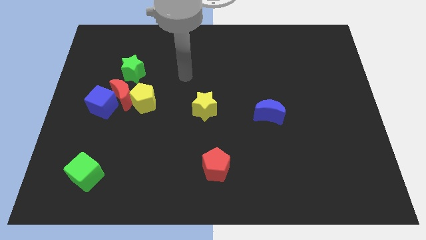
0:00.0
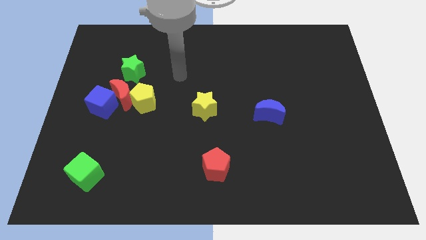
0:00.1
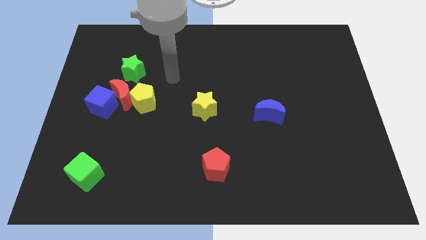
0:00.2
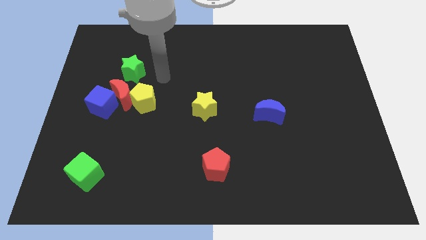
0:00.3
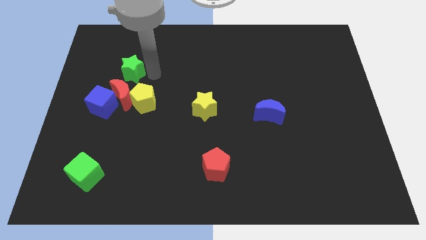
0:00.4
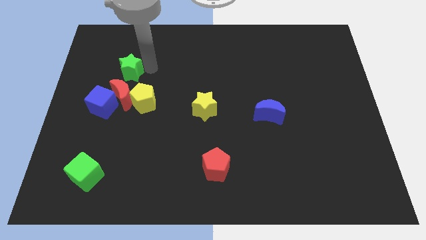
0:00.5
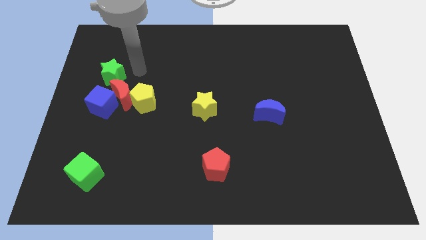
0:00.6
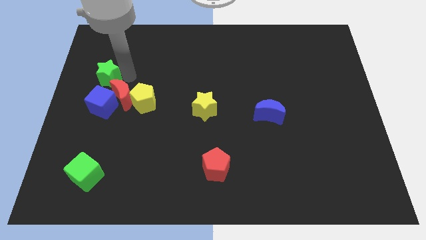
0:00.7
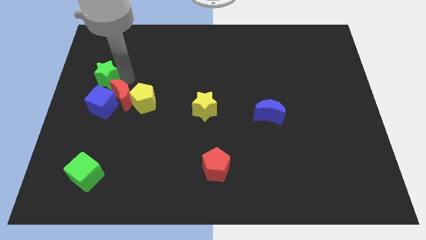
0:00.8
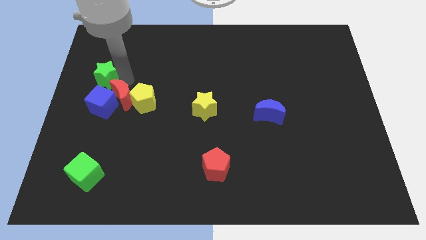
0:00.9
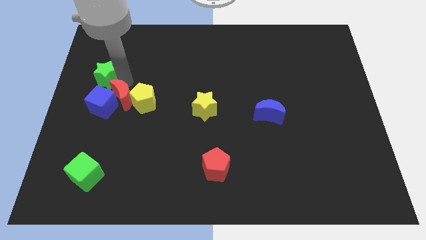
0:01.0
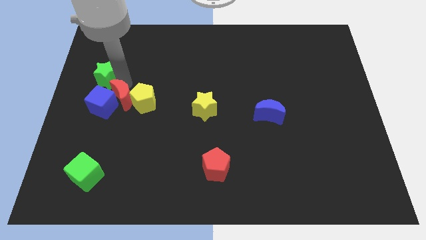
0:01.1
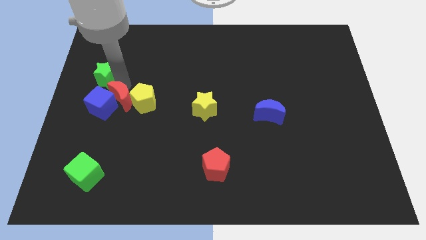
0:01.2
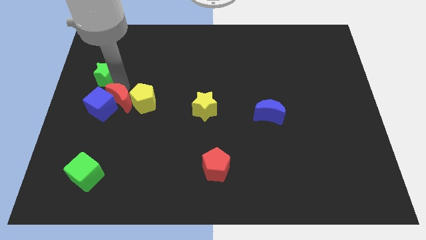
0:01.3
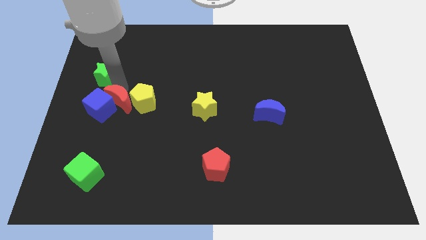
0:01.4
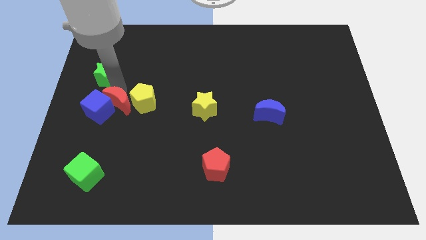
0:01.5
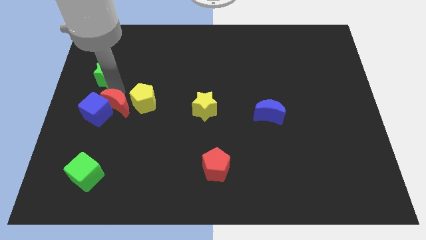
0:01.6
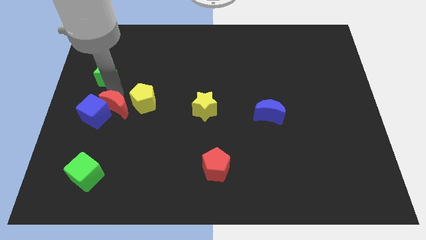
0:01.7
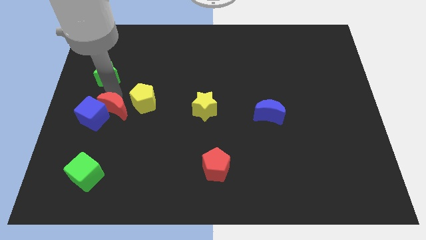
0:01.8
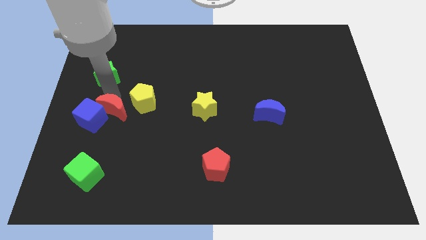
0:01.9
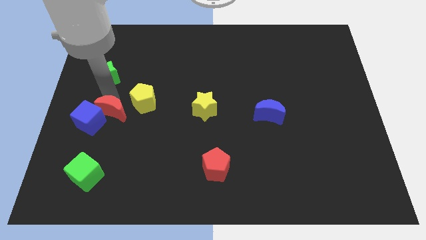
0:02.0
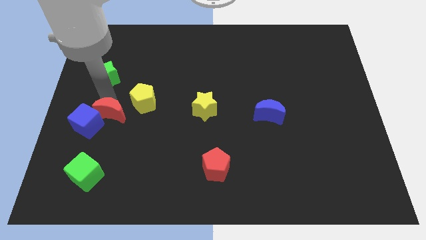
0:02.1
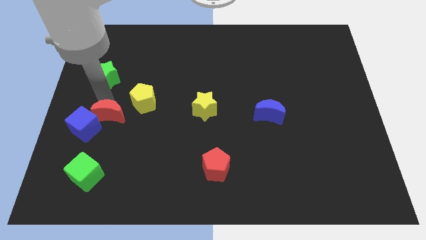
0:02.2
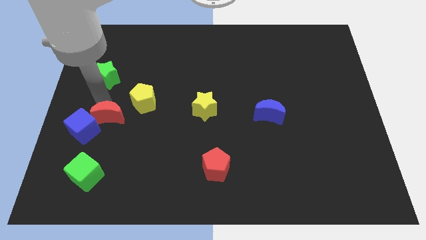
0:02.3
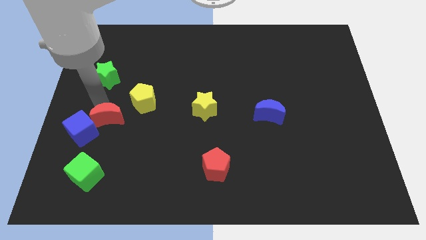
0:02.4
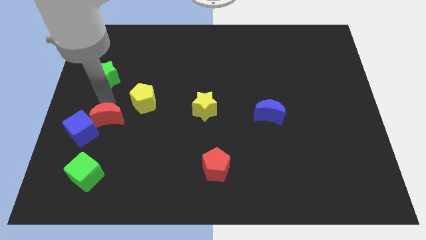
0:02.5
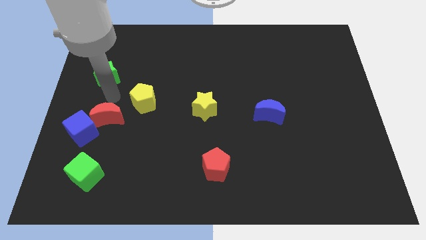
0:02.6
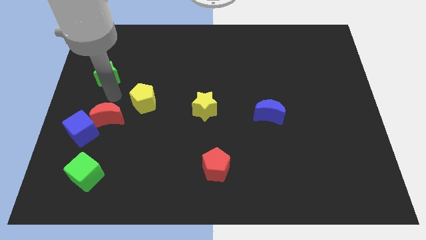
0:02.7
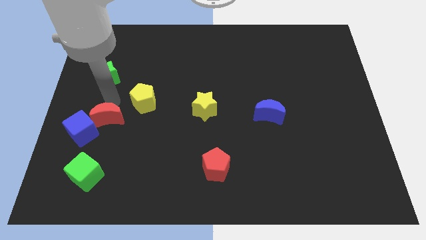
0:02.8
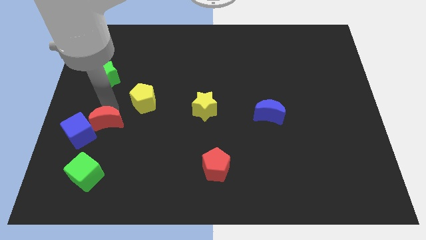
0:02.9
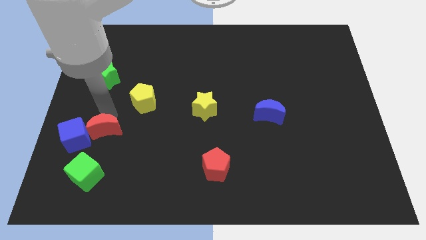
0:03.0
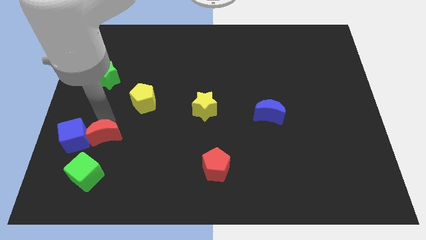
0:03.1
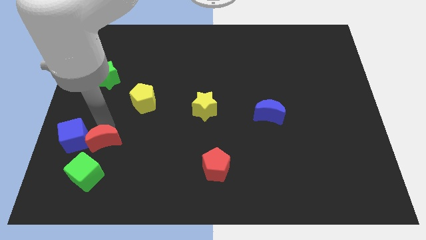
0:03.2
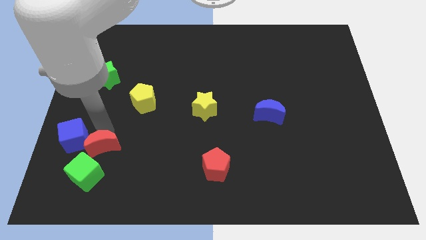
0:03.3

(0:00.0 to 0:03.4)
pull the red moon apart from the yellow pentagon, blue cube, and green star

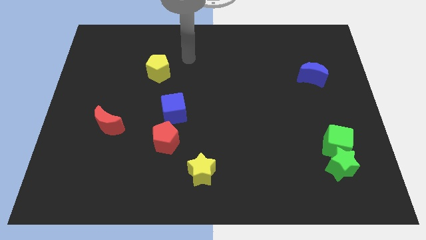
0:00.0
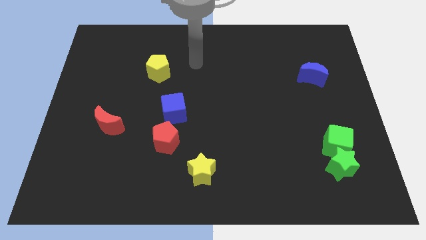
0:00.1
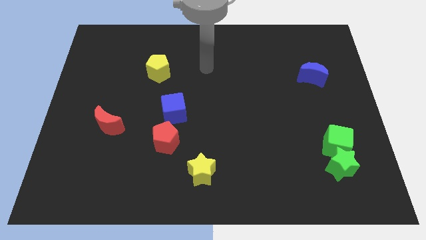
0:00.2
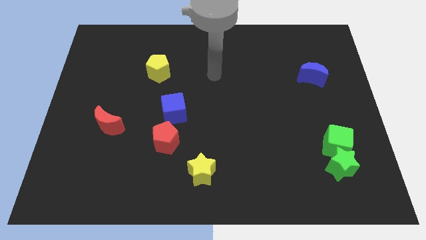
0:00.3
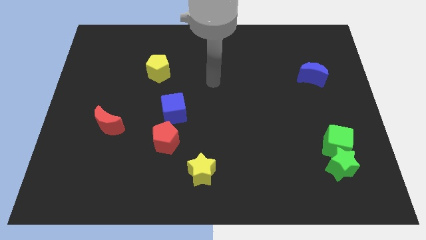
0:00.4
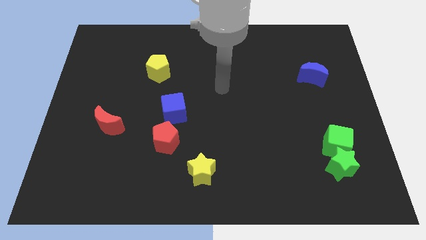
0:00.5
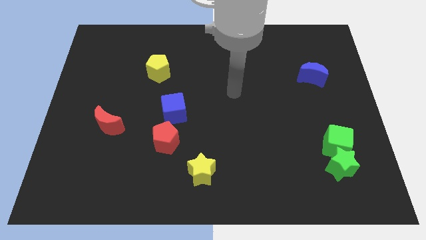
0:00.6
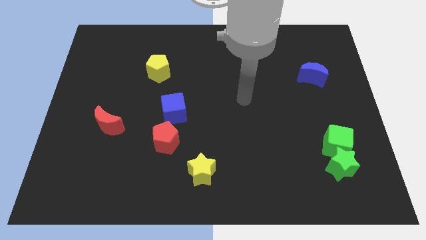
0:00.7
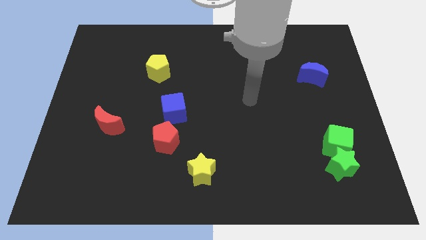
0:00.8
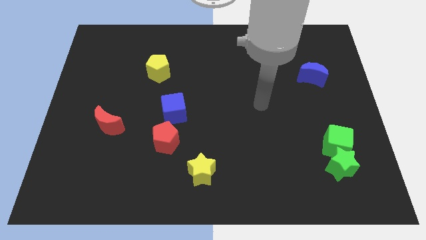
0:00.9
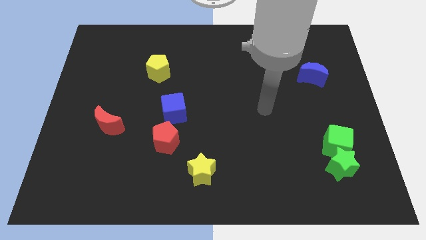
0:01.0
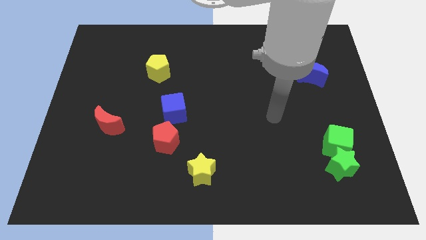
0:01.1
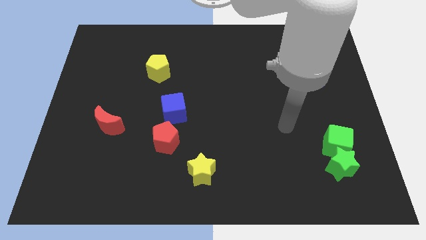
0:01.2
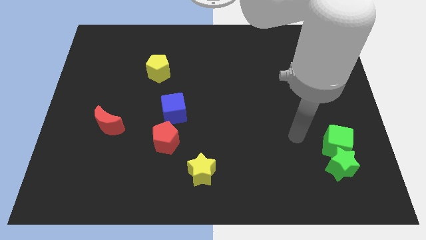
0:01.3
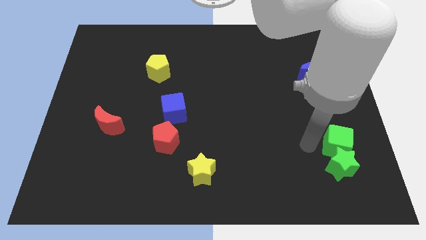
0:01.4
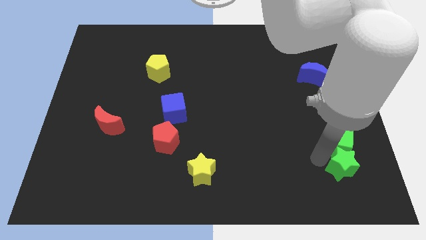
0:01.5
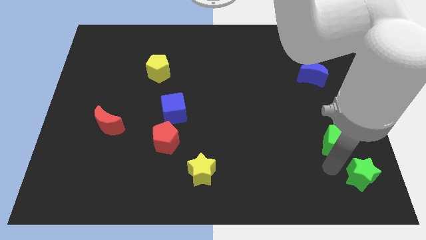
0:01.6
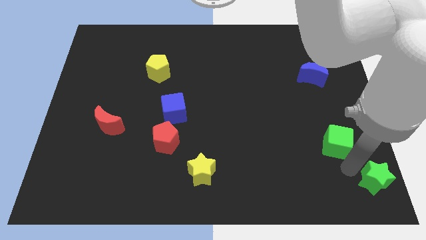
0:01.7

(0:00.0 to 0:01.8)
move the green cube away from the green star

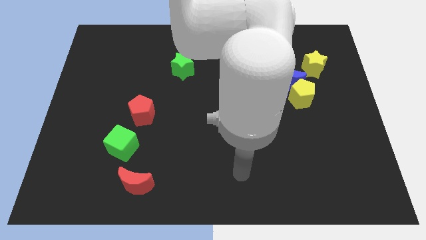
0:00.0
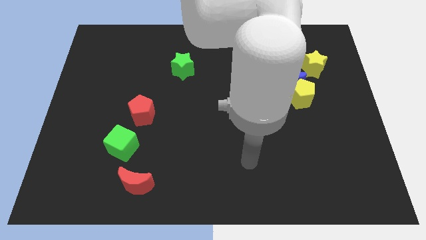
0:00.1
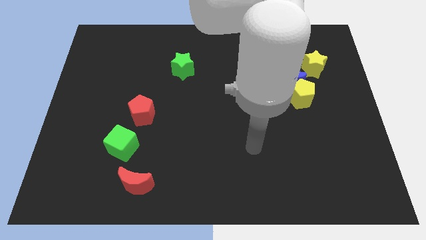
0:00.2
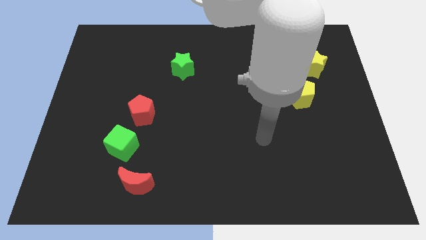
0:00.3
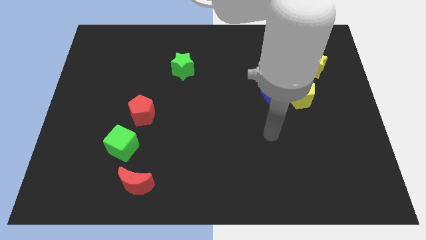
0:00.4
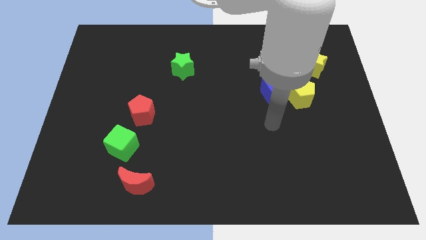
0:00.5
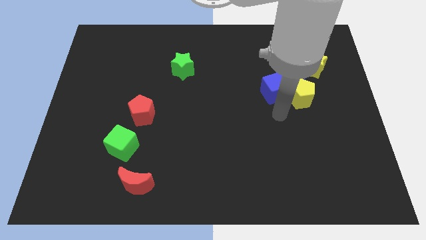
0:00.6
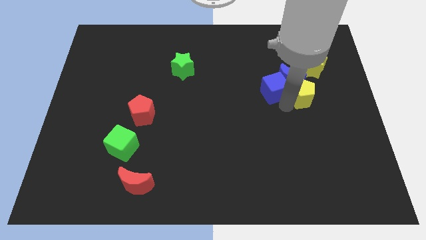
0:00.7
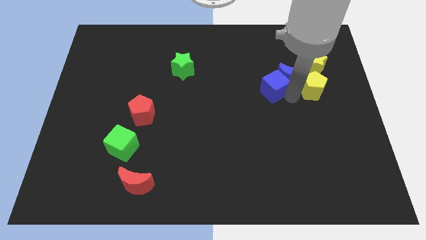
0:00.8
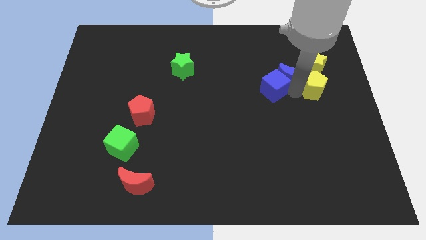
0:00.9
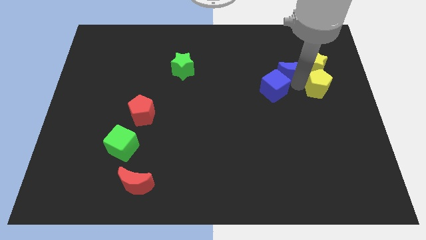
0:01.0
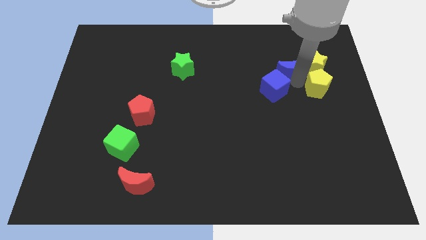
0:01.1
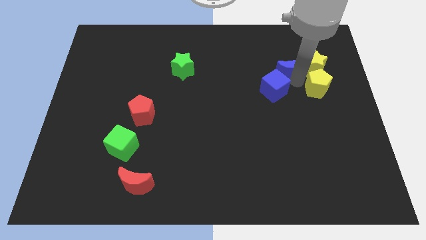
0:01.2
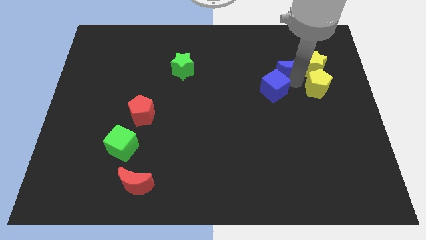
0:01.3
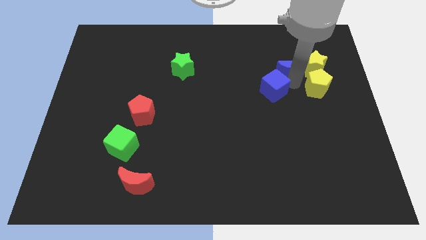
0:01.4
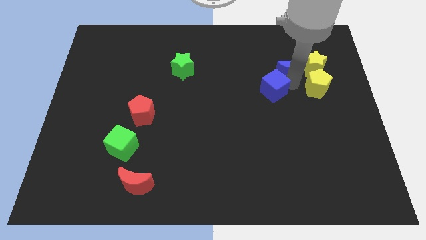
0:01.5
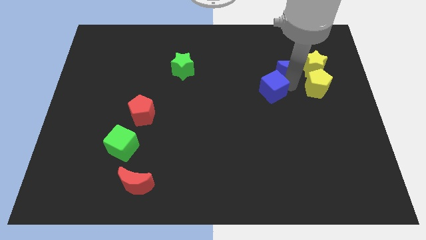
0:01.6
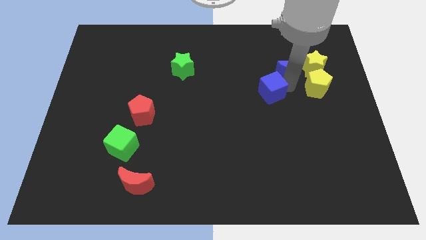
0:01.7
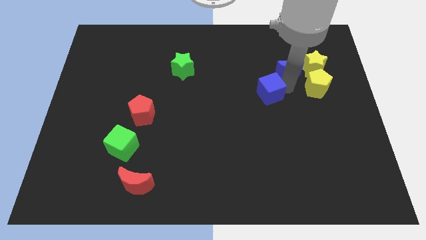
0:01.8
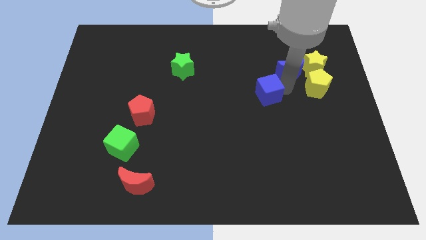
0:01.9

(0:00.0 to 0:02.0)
move the blue cube away from the blue moon and yellow pentagon

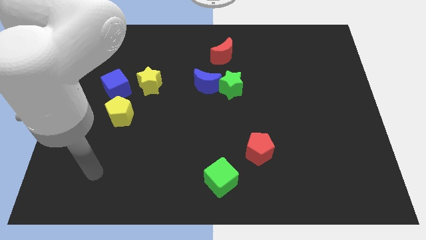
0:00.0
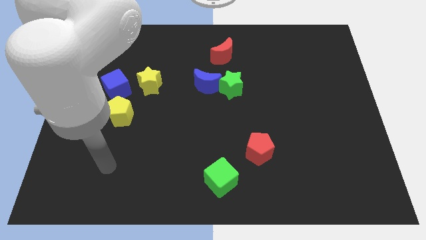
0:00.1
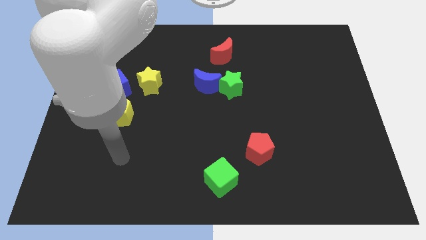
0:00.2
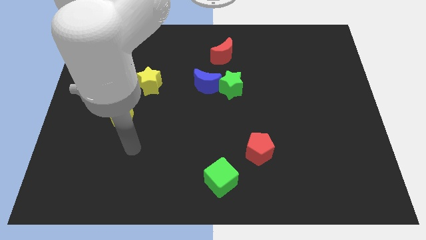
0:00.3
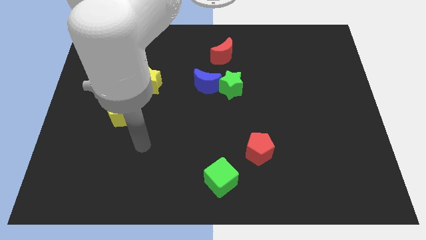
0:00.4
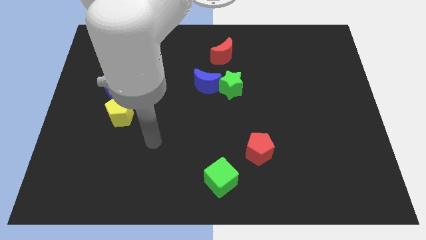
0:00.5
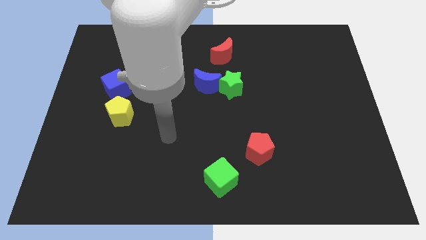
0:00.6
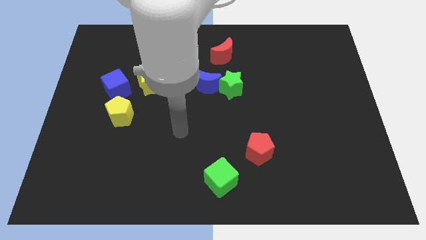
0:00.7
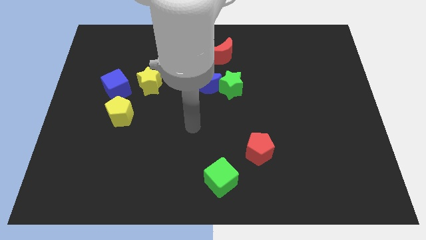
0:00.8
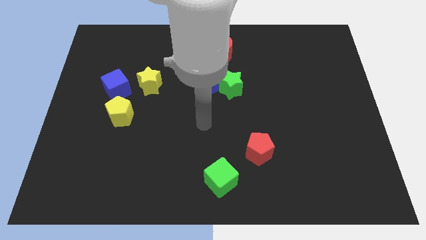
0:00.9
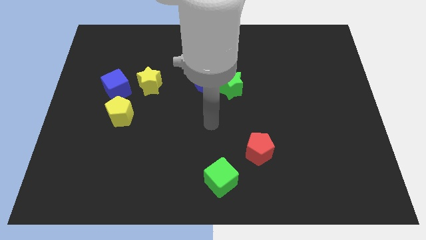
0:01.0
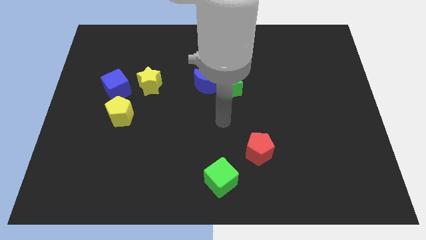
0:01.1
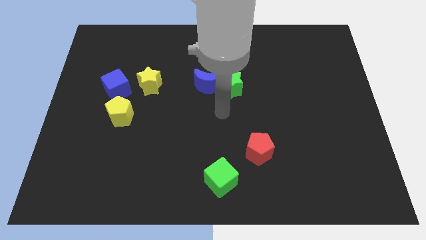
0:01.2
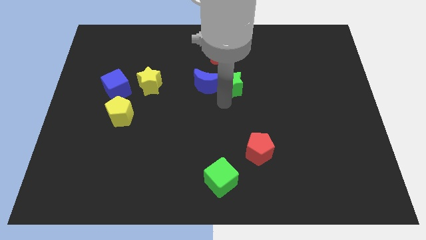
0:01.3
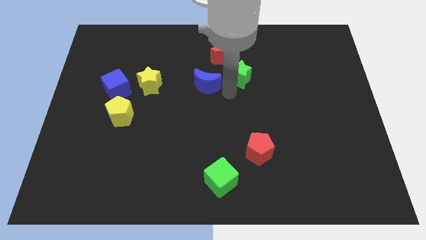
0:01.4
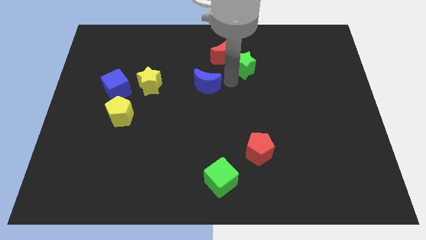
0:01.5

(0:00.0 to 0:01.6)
separate the blue moon from the green star

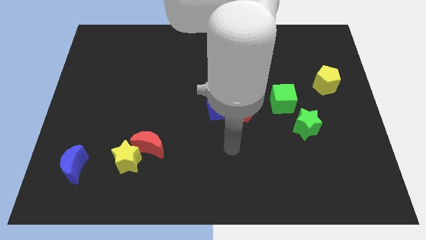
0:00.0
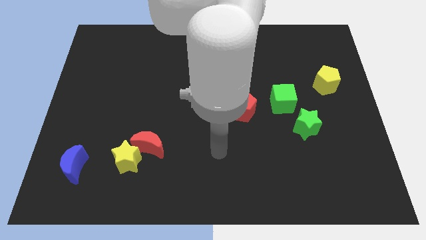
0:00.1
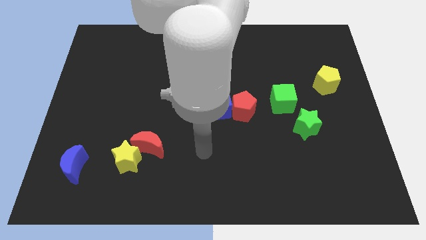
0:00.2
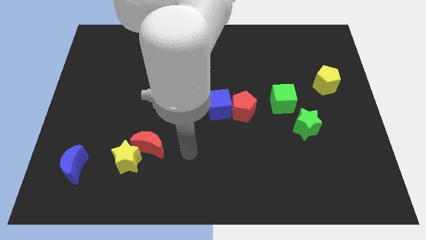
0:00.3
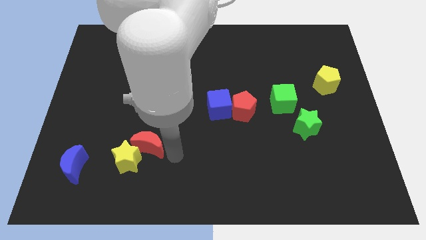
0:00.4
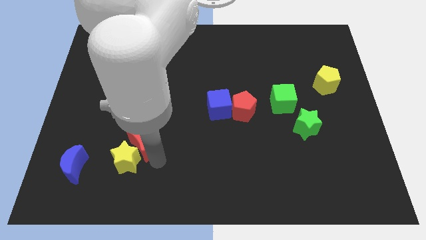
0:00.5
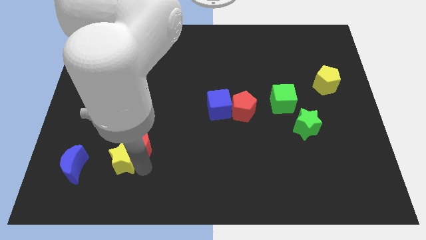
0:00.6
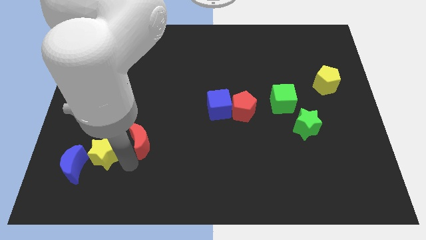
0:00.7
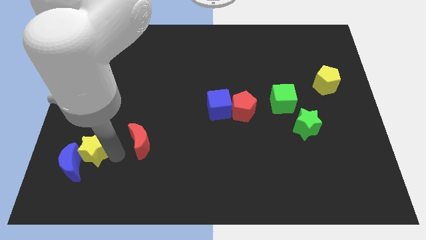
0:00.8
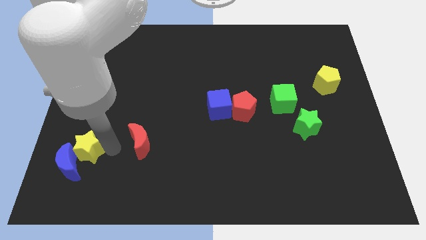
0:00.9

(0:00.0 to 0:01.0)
separate the red moon from the yellow star
